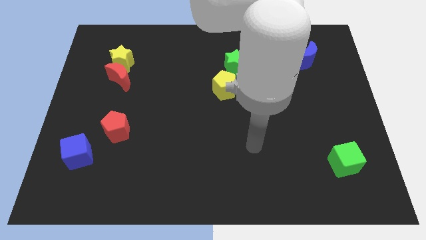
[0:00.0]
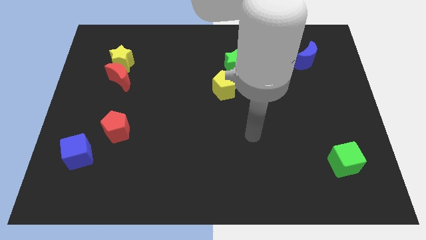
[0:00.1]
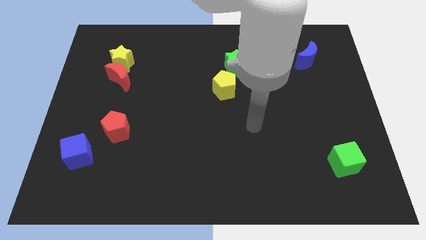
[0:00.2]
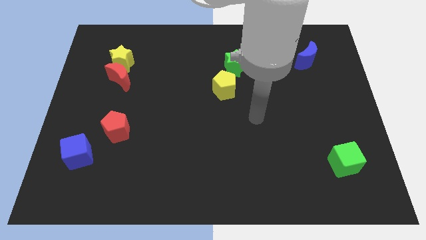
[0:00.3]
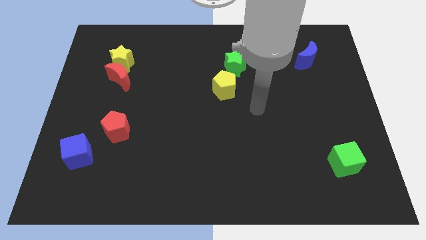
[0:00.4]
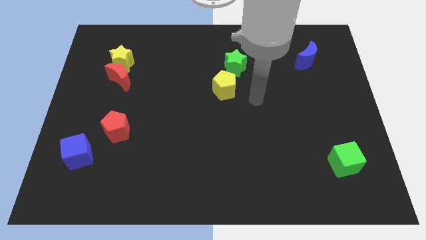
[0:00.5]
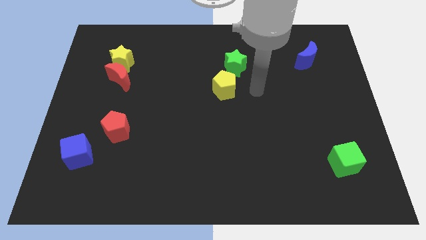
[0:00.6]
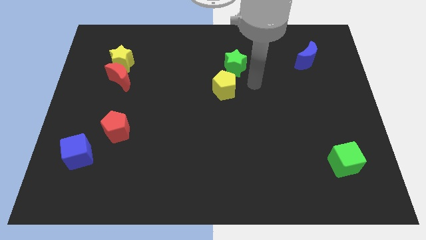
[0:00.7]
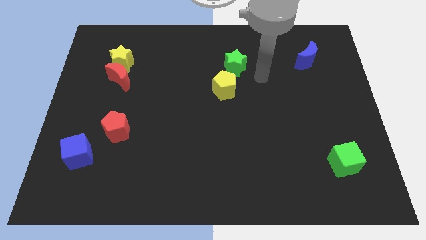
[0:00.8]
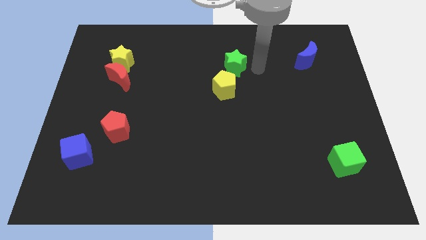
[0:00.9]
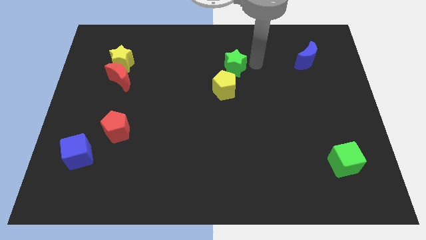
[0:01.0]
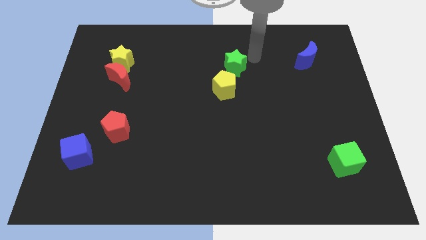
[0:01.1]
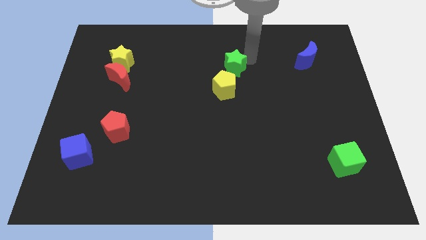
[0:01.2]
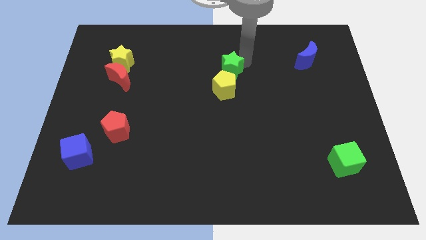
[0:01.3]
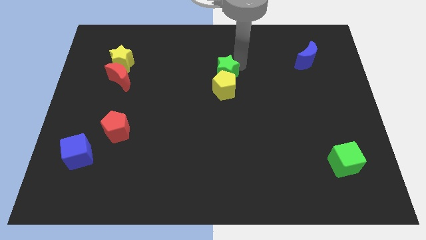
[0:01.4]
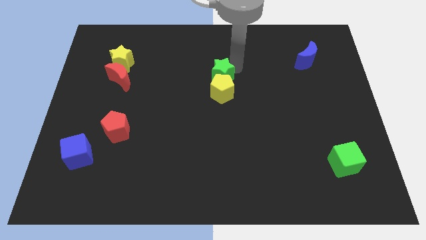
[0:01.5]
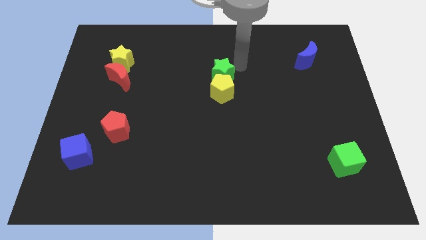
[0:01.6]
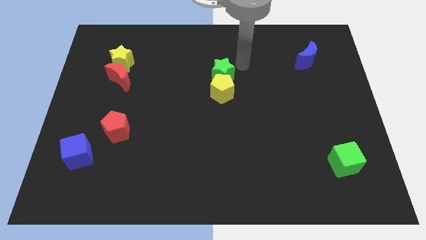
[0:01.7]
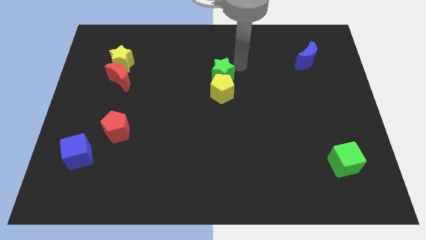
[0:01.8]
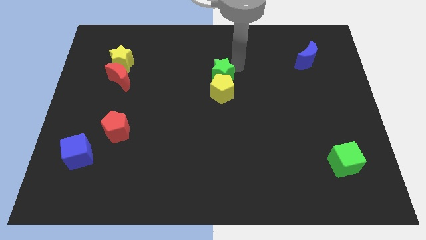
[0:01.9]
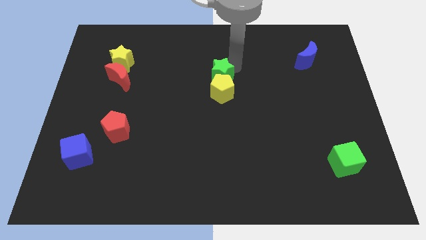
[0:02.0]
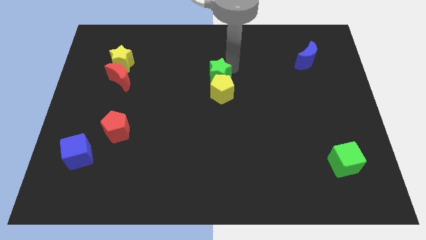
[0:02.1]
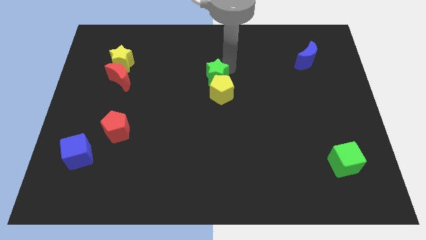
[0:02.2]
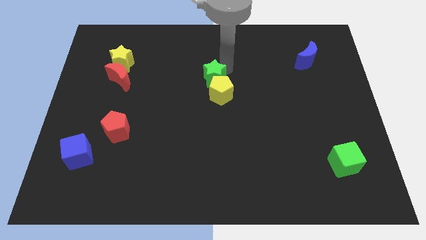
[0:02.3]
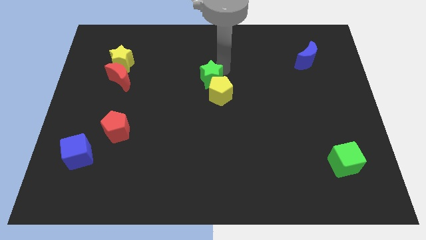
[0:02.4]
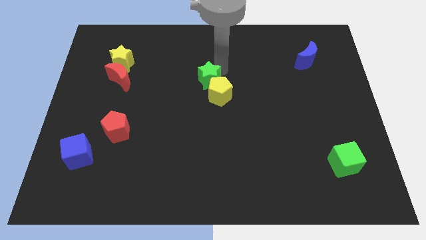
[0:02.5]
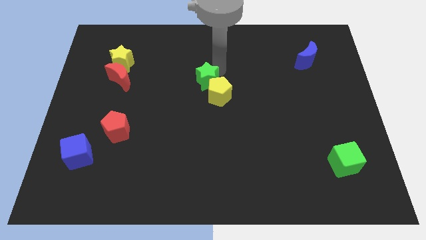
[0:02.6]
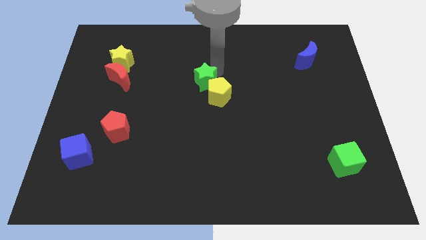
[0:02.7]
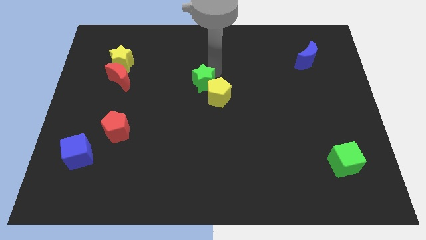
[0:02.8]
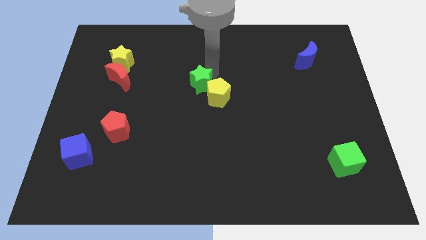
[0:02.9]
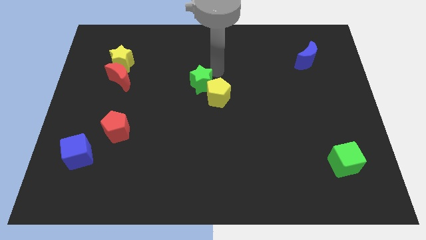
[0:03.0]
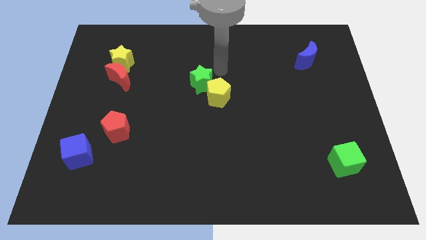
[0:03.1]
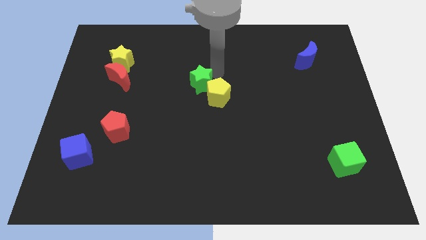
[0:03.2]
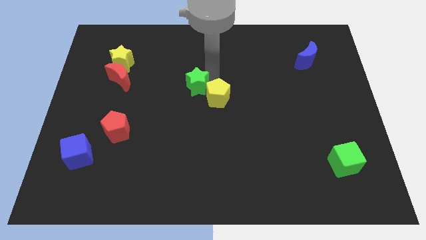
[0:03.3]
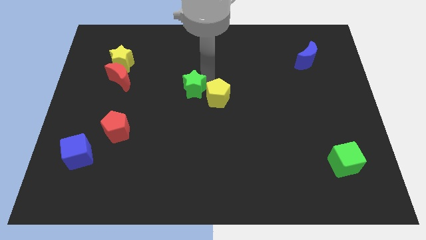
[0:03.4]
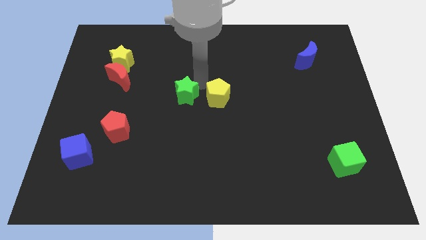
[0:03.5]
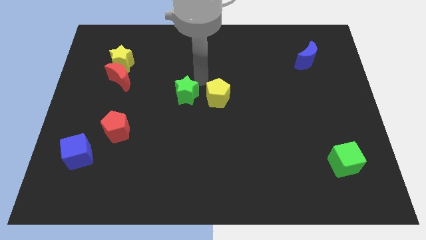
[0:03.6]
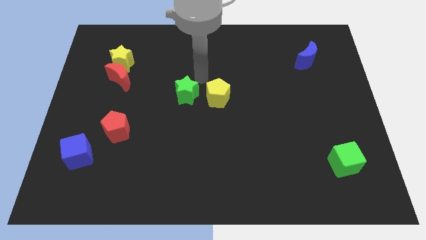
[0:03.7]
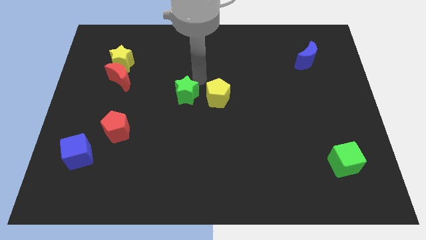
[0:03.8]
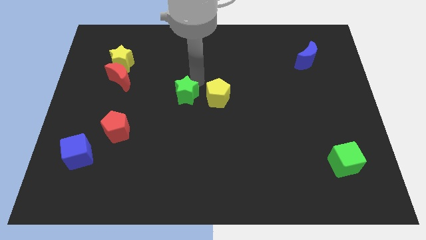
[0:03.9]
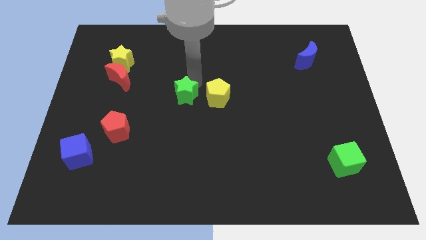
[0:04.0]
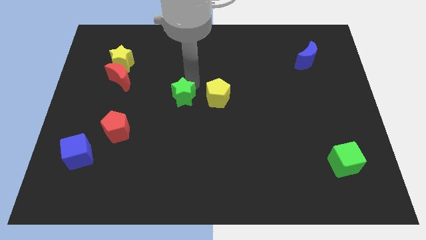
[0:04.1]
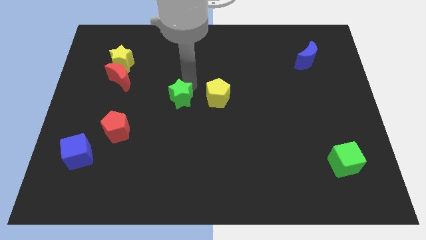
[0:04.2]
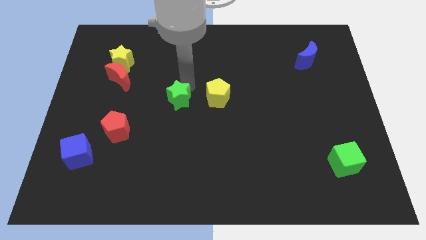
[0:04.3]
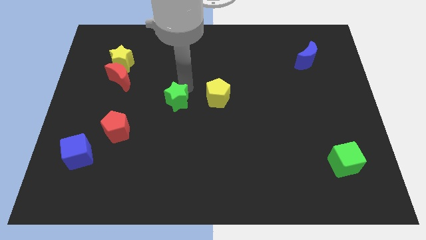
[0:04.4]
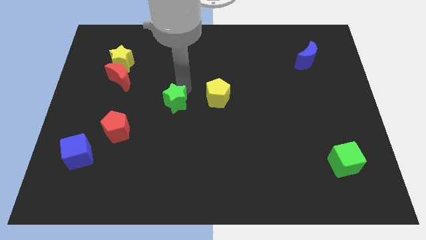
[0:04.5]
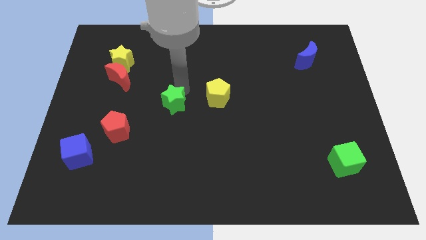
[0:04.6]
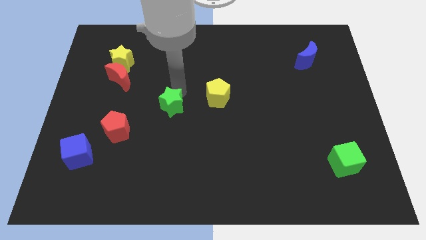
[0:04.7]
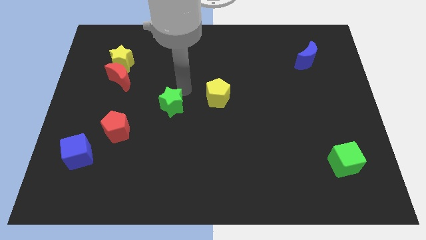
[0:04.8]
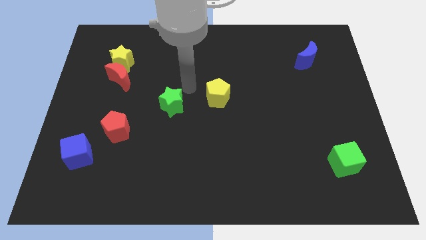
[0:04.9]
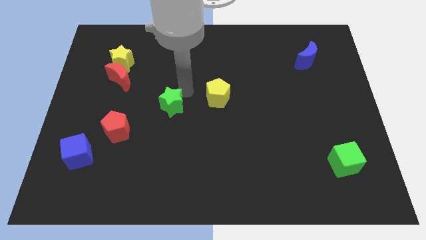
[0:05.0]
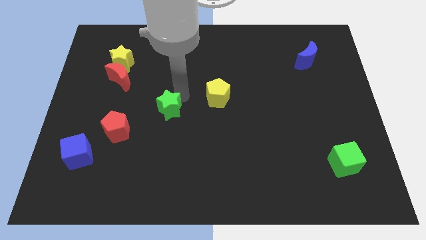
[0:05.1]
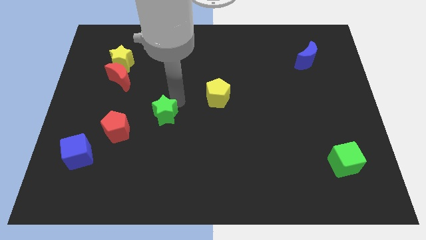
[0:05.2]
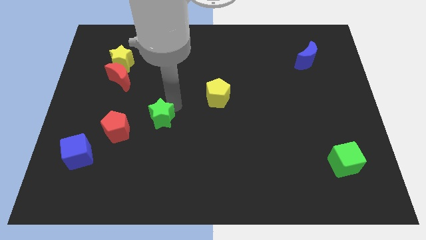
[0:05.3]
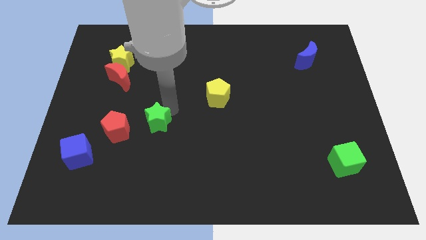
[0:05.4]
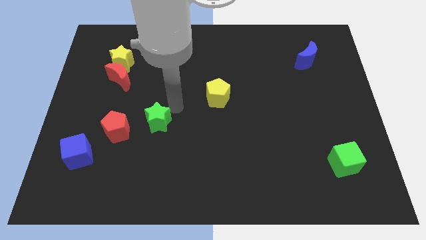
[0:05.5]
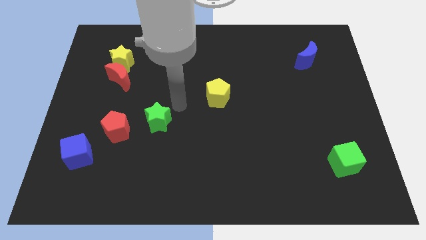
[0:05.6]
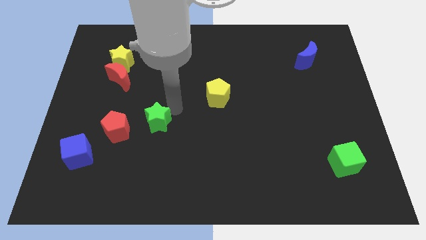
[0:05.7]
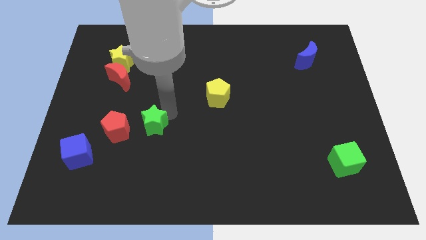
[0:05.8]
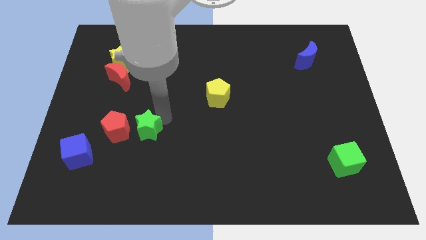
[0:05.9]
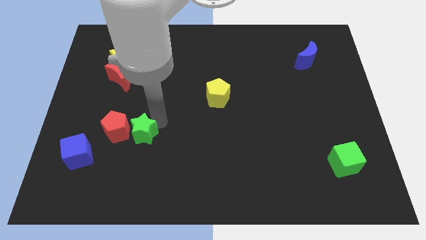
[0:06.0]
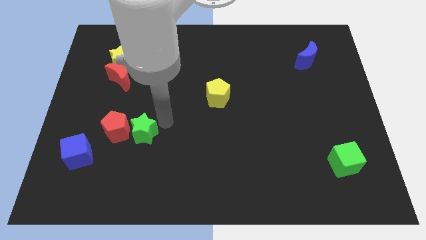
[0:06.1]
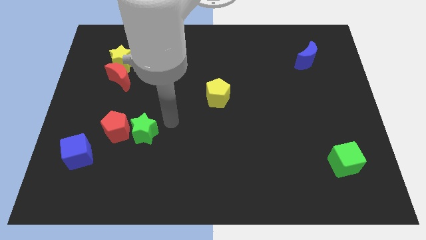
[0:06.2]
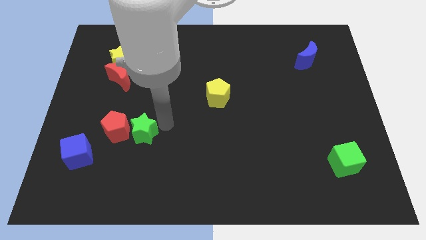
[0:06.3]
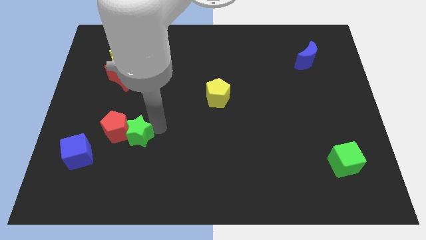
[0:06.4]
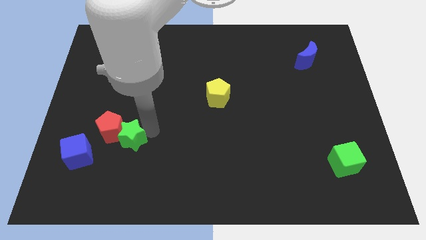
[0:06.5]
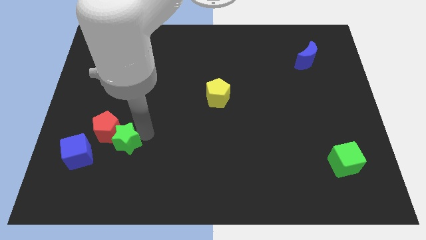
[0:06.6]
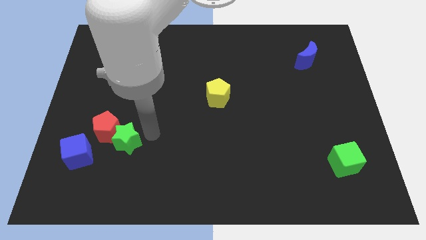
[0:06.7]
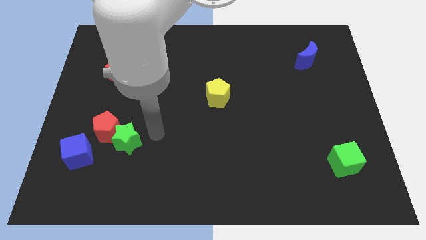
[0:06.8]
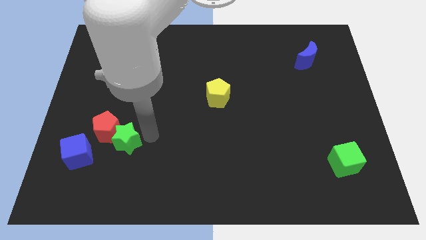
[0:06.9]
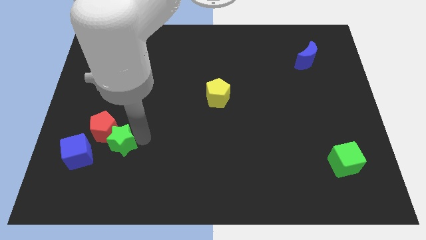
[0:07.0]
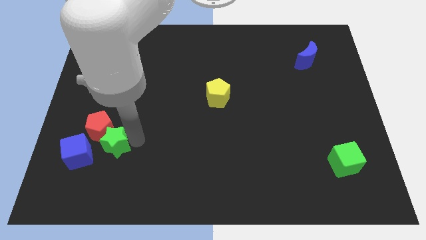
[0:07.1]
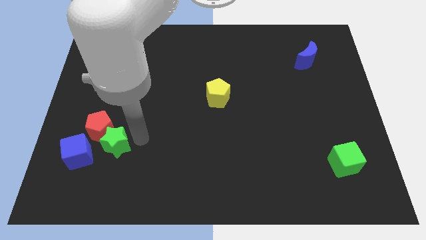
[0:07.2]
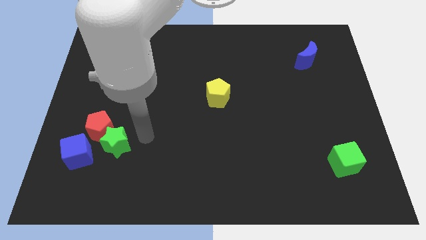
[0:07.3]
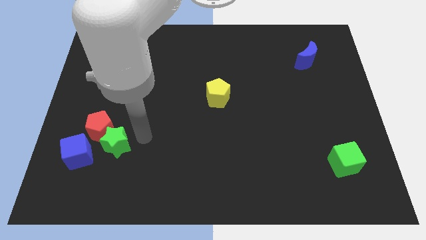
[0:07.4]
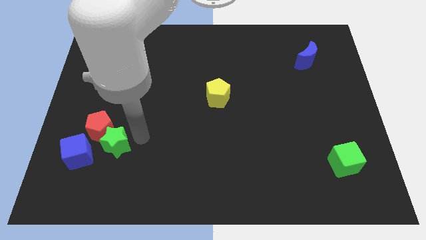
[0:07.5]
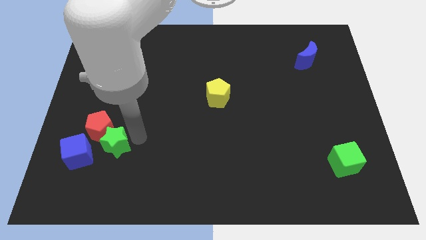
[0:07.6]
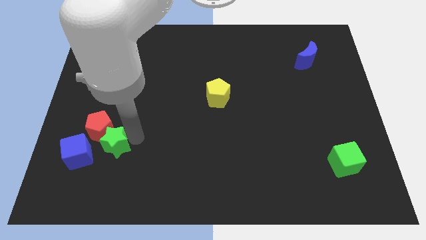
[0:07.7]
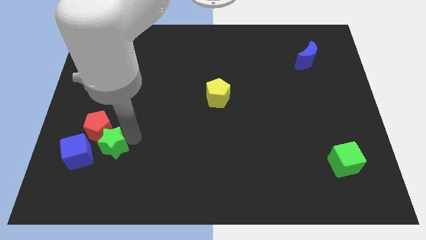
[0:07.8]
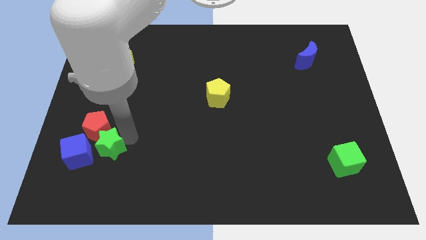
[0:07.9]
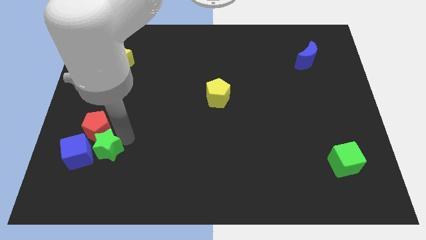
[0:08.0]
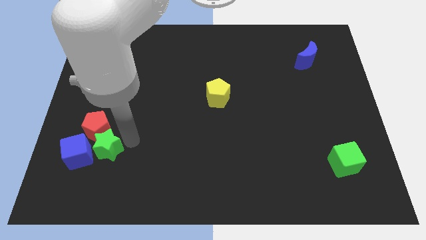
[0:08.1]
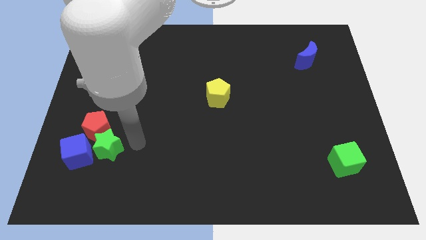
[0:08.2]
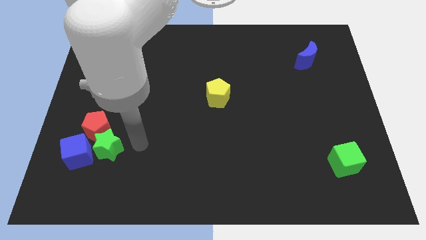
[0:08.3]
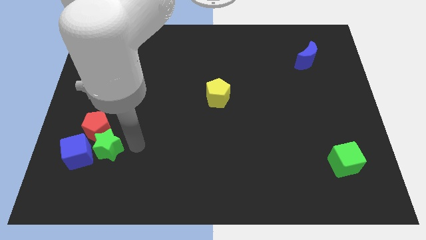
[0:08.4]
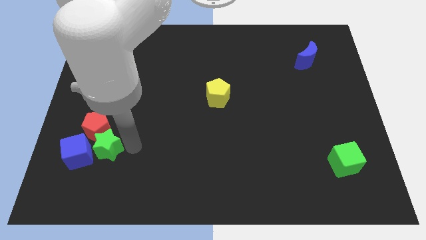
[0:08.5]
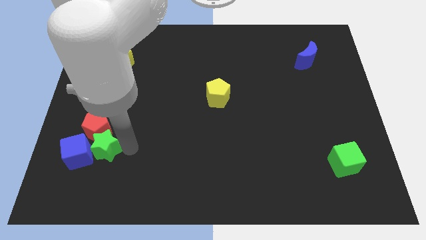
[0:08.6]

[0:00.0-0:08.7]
push the green star to the blue cube
